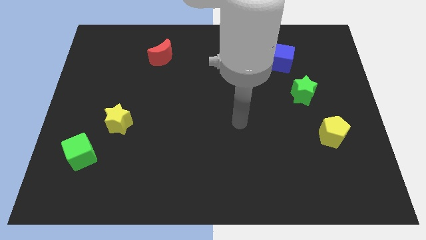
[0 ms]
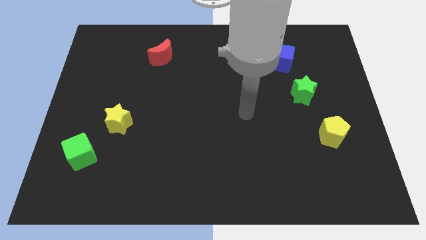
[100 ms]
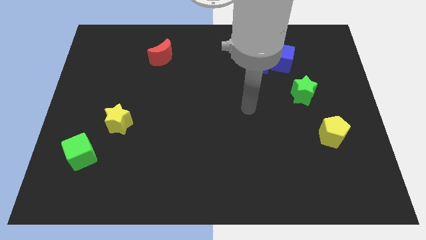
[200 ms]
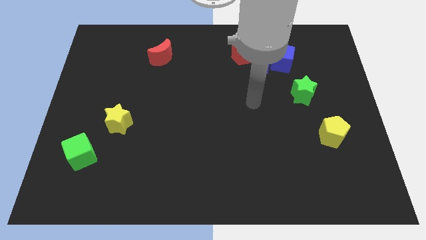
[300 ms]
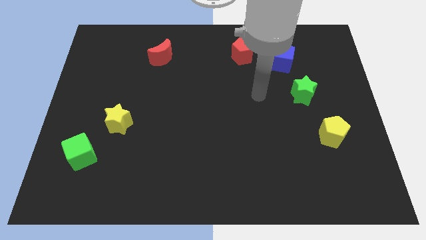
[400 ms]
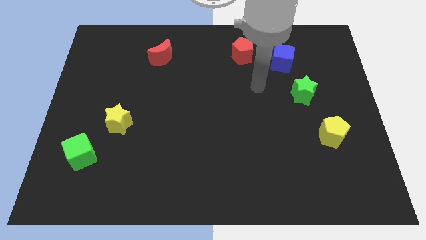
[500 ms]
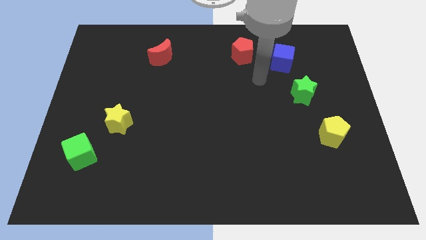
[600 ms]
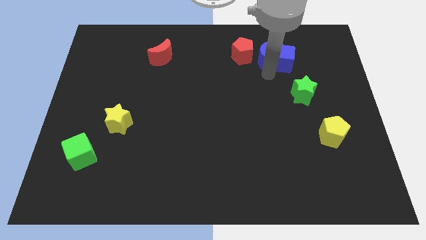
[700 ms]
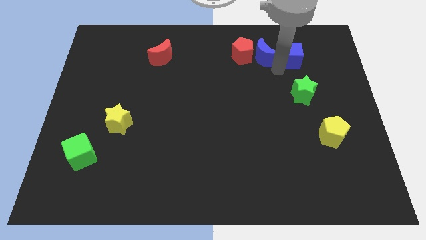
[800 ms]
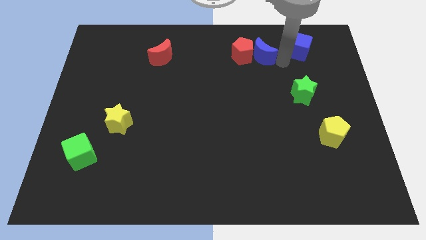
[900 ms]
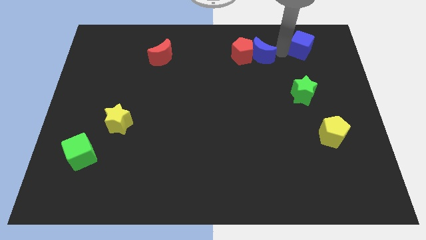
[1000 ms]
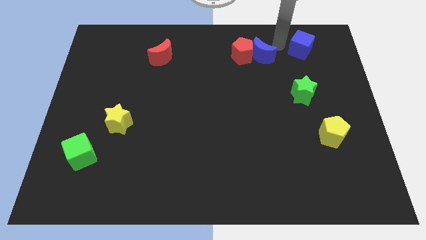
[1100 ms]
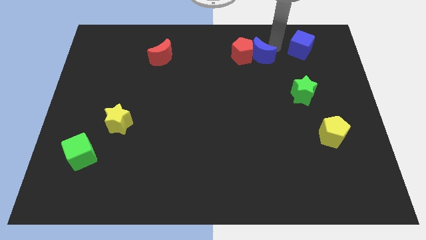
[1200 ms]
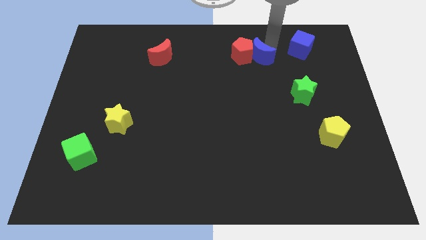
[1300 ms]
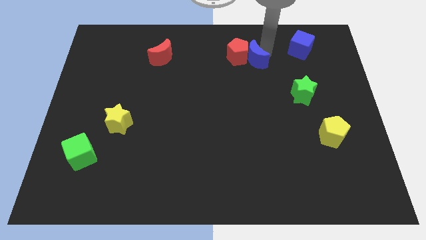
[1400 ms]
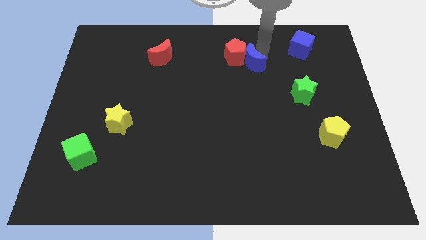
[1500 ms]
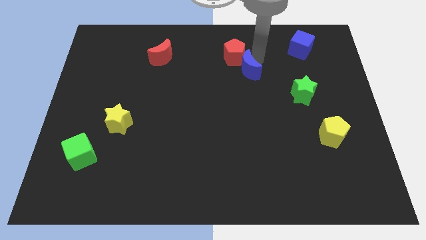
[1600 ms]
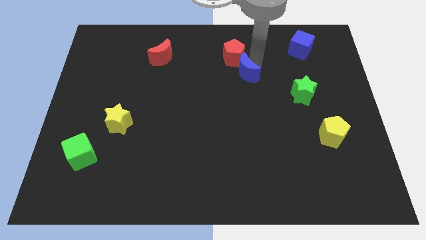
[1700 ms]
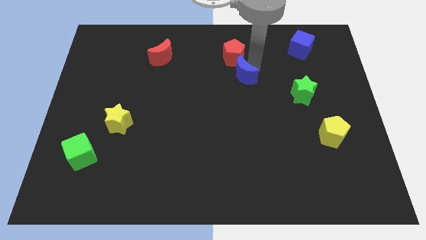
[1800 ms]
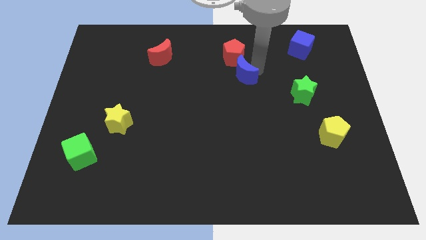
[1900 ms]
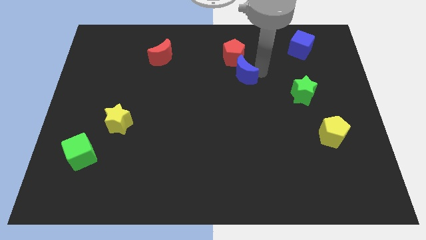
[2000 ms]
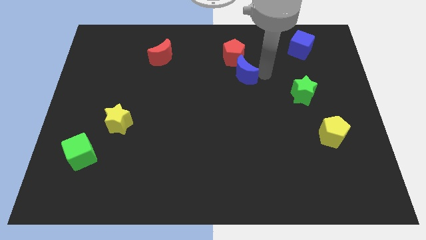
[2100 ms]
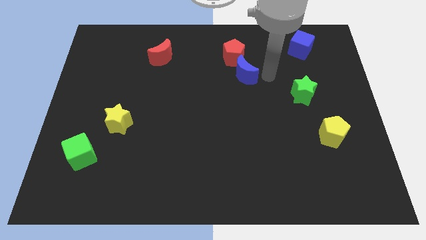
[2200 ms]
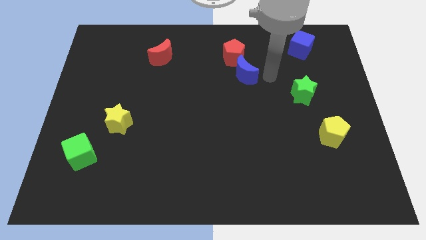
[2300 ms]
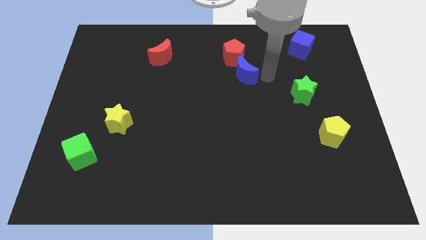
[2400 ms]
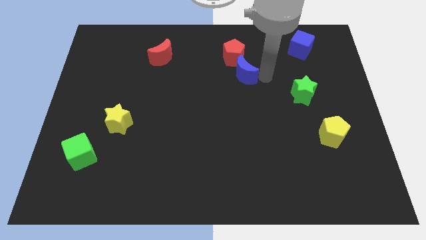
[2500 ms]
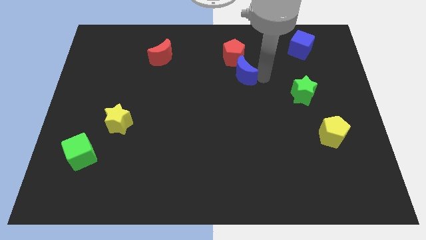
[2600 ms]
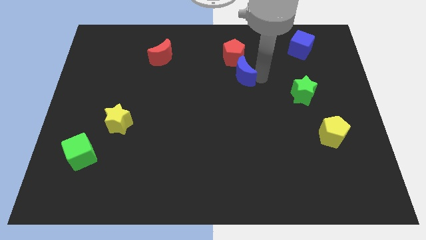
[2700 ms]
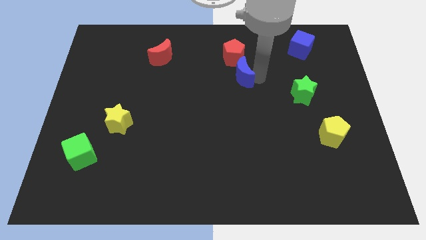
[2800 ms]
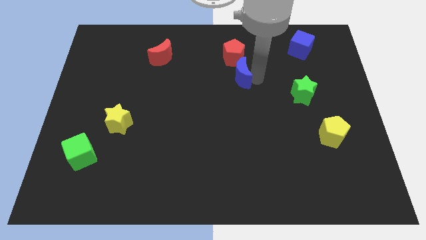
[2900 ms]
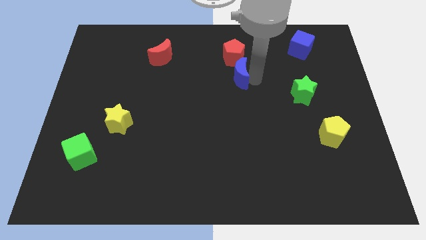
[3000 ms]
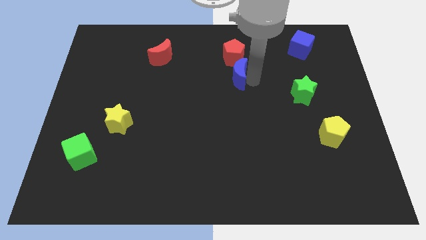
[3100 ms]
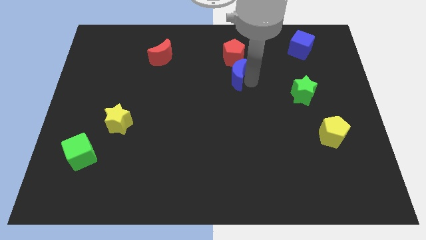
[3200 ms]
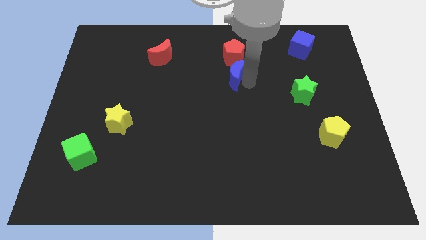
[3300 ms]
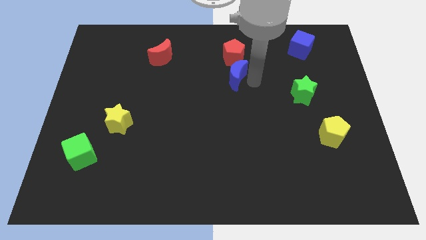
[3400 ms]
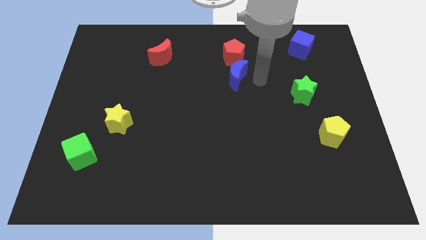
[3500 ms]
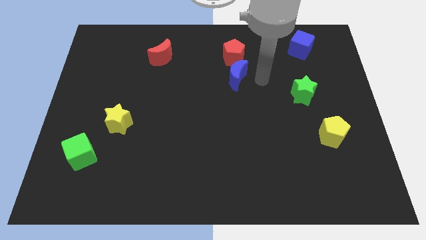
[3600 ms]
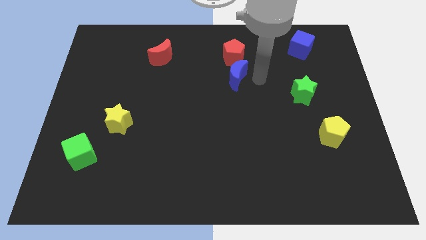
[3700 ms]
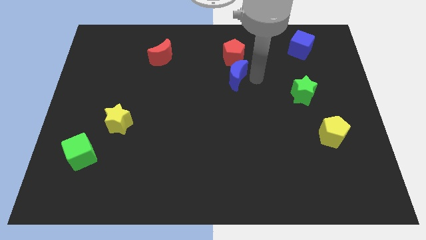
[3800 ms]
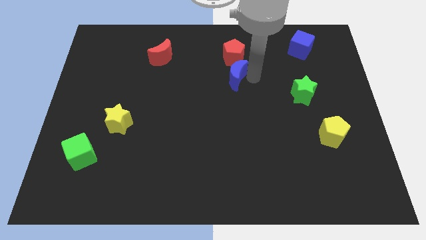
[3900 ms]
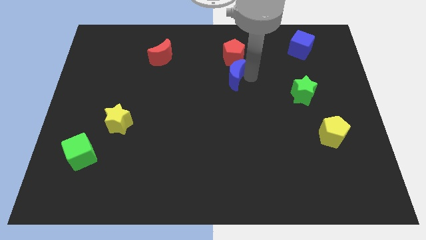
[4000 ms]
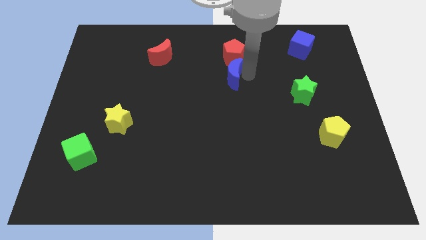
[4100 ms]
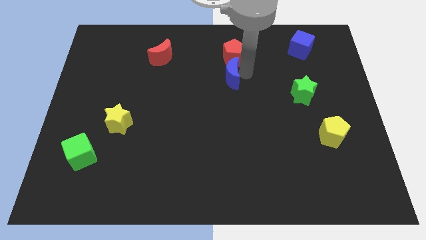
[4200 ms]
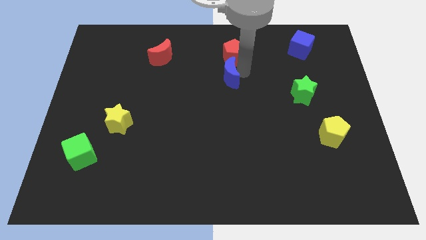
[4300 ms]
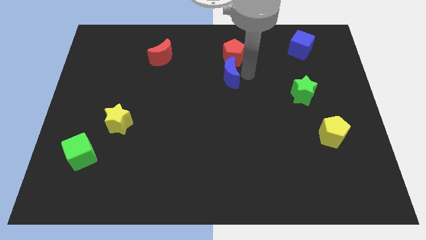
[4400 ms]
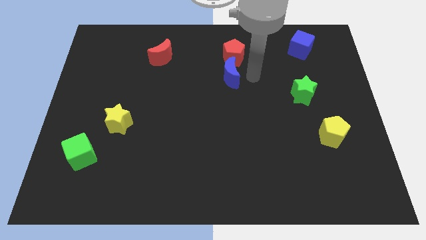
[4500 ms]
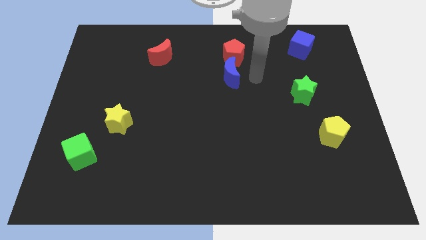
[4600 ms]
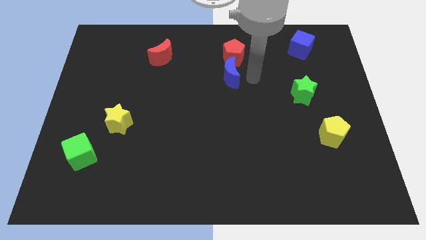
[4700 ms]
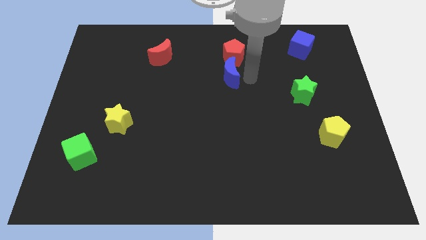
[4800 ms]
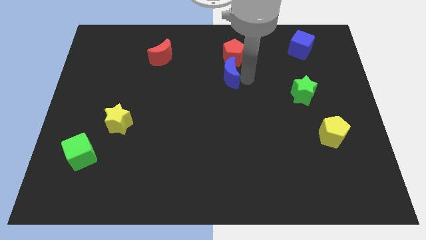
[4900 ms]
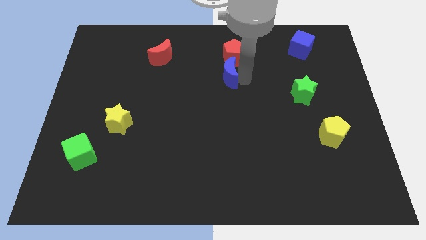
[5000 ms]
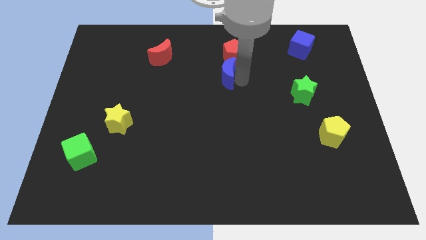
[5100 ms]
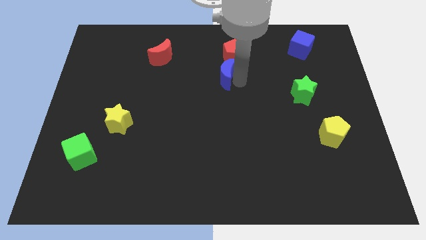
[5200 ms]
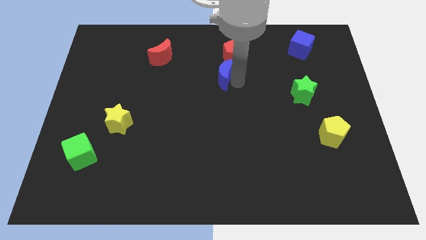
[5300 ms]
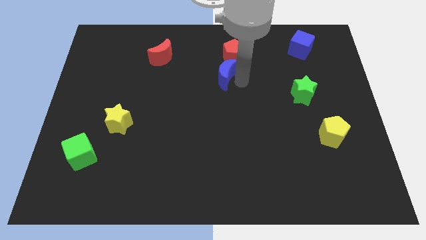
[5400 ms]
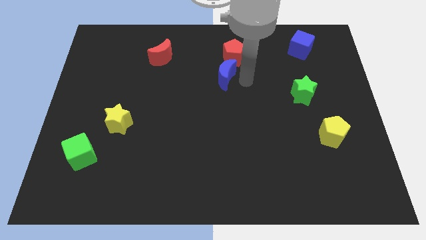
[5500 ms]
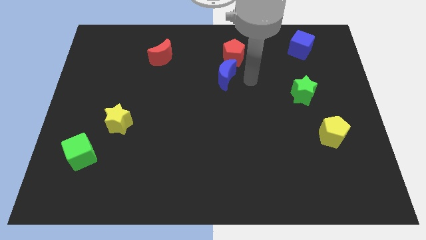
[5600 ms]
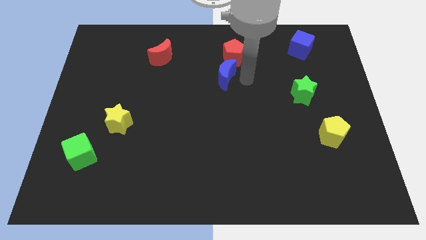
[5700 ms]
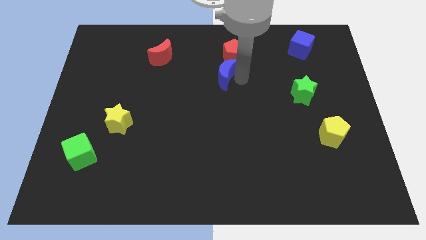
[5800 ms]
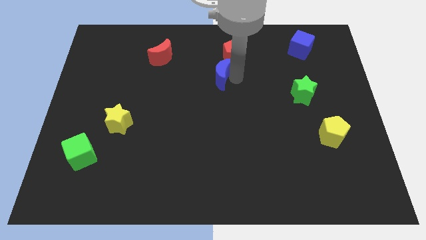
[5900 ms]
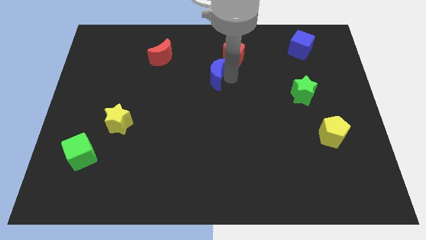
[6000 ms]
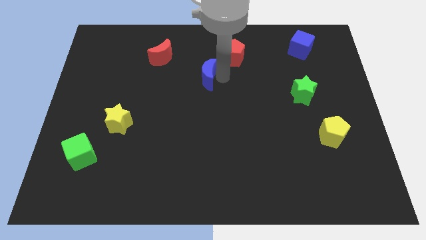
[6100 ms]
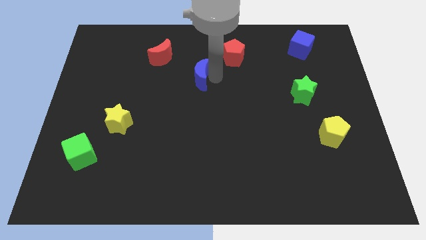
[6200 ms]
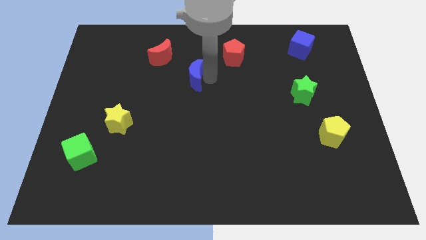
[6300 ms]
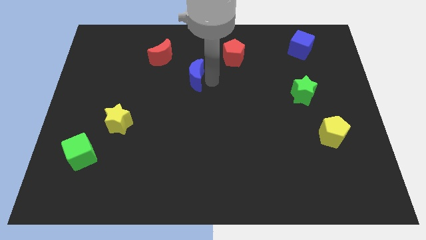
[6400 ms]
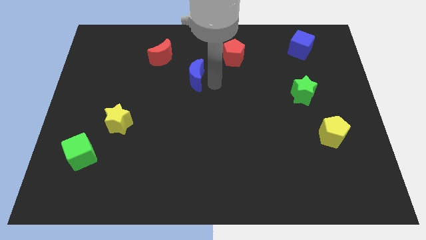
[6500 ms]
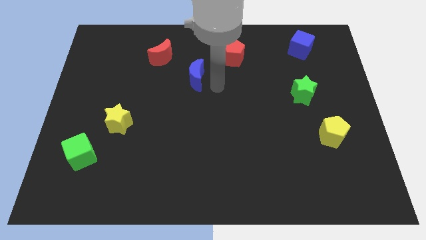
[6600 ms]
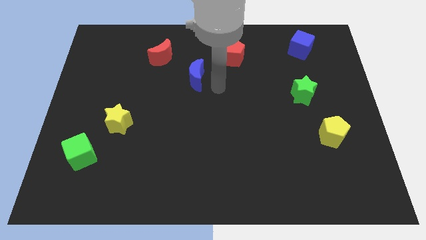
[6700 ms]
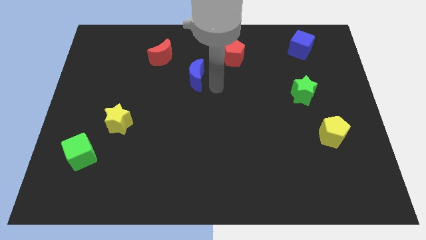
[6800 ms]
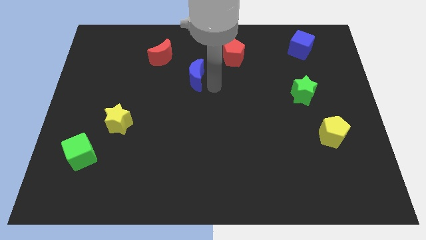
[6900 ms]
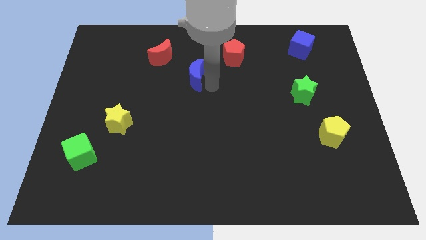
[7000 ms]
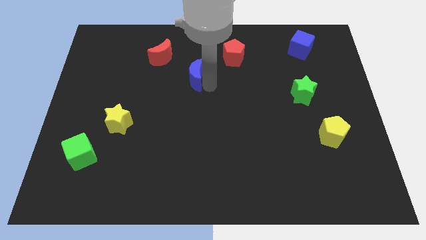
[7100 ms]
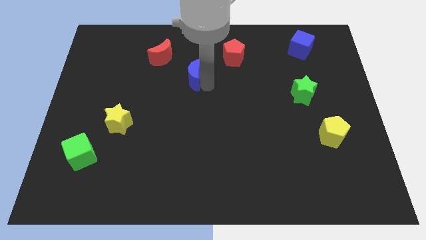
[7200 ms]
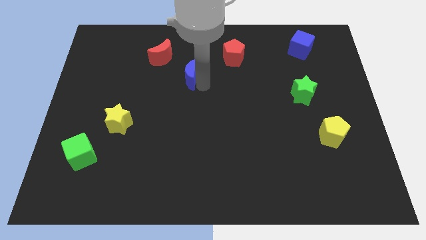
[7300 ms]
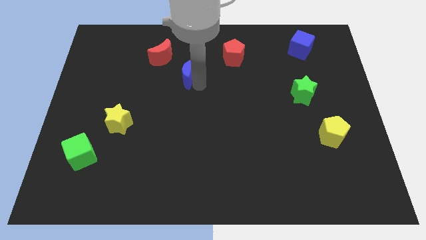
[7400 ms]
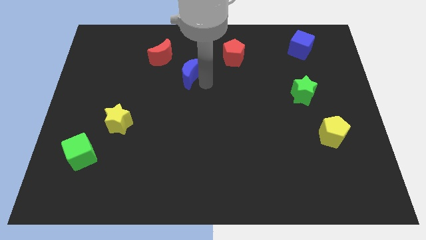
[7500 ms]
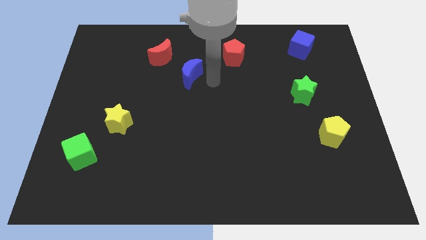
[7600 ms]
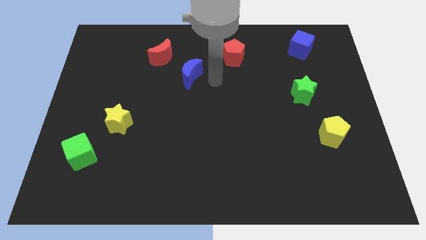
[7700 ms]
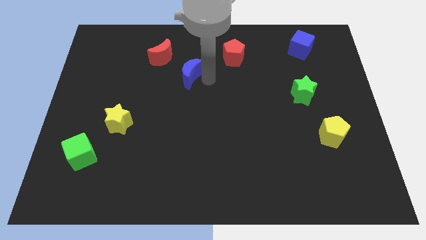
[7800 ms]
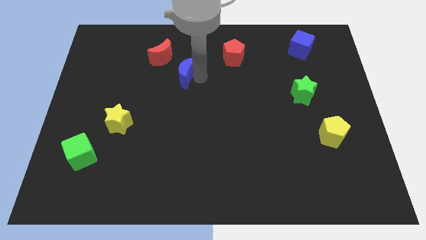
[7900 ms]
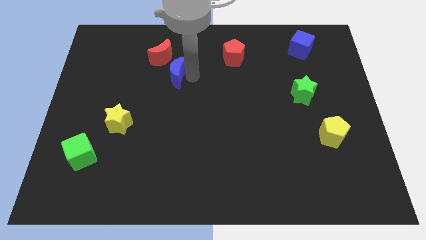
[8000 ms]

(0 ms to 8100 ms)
move the blue moon to the left

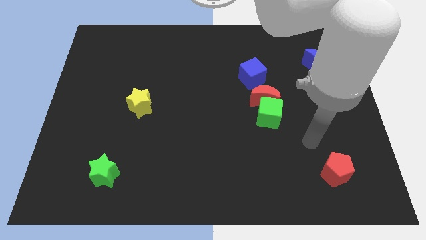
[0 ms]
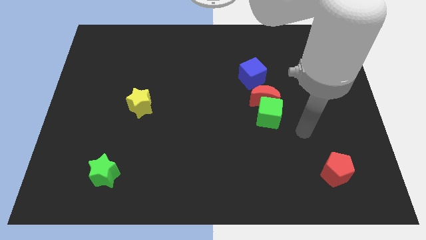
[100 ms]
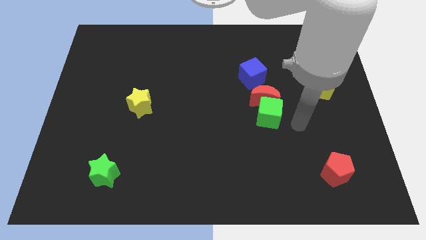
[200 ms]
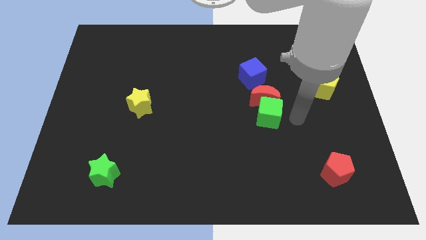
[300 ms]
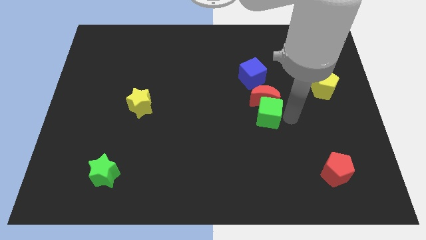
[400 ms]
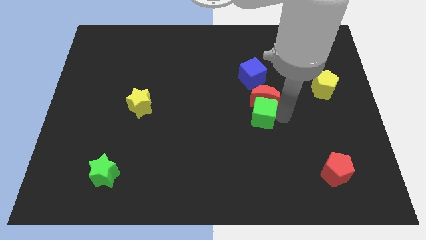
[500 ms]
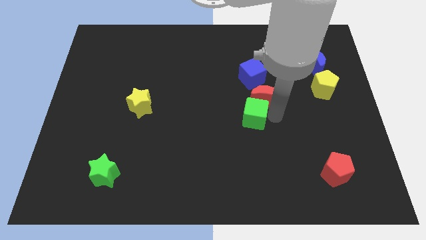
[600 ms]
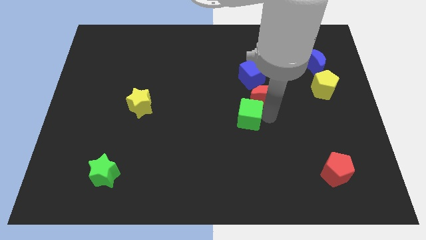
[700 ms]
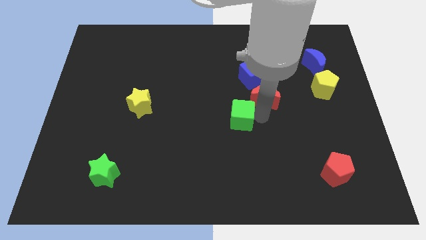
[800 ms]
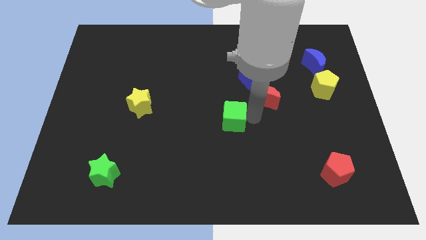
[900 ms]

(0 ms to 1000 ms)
slightly move the green cube to the left
